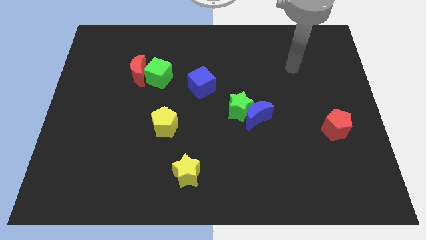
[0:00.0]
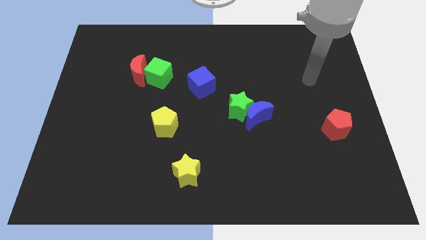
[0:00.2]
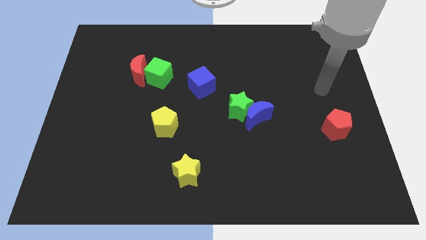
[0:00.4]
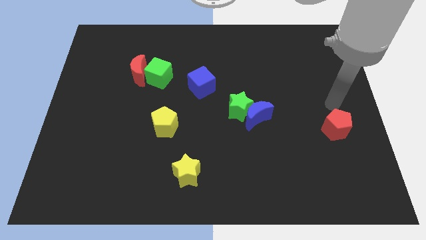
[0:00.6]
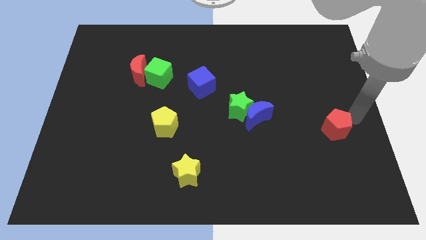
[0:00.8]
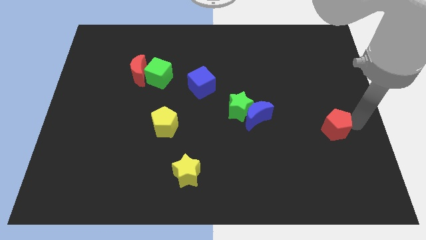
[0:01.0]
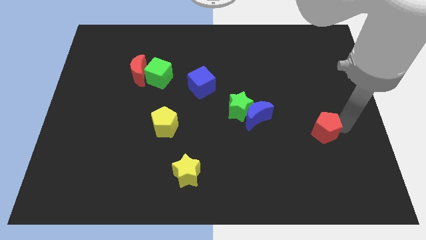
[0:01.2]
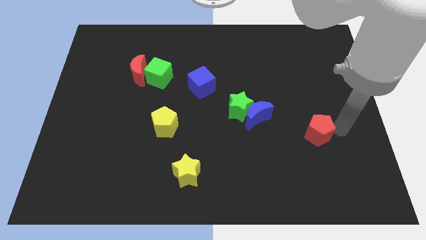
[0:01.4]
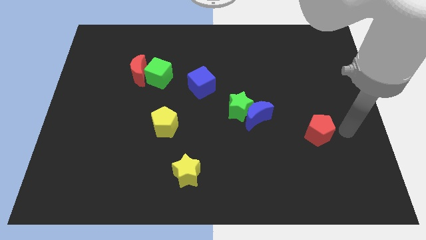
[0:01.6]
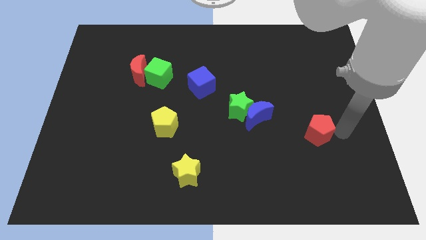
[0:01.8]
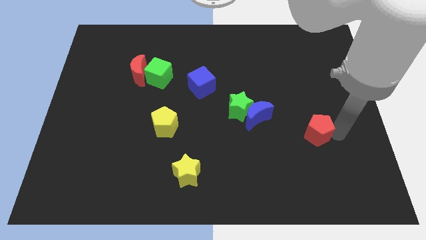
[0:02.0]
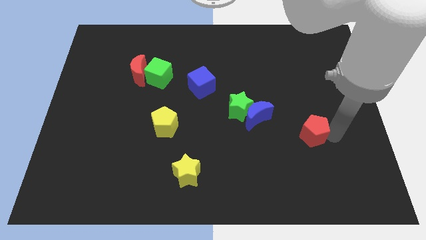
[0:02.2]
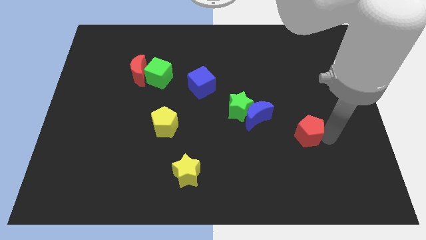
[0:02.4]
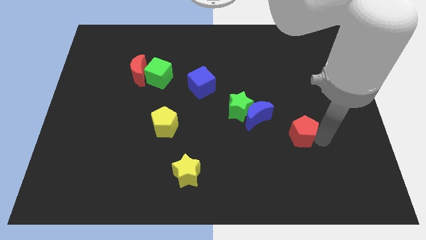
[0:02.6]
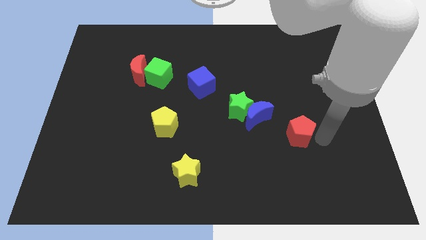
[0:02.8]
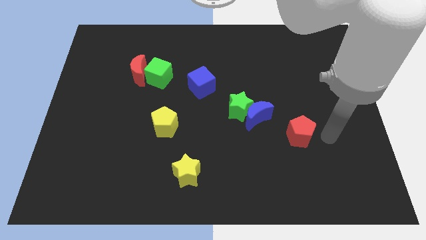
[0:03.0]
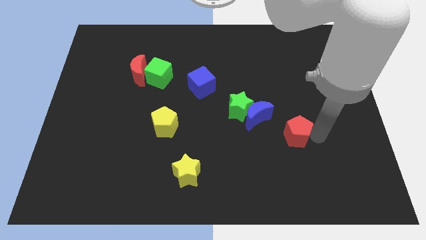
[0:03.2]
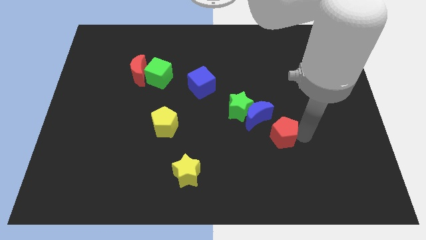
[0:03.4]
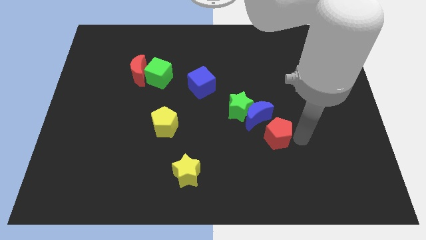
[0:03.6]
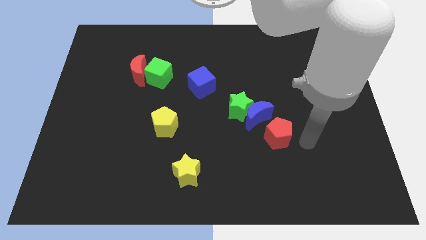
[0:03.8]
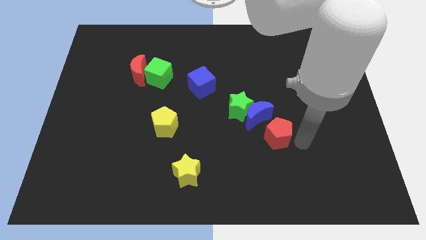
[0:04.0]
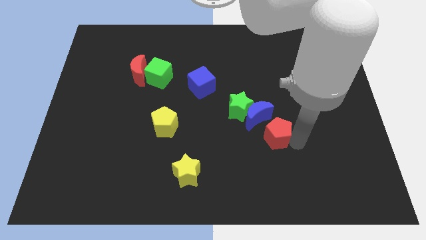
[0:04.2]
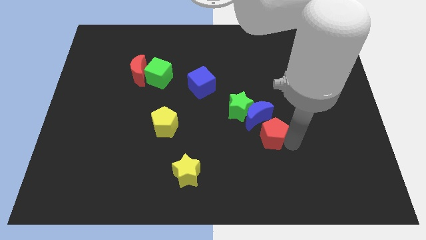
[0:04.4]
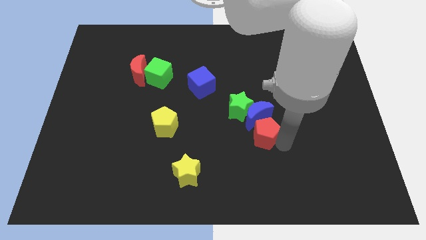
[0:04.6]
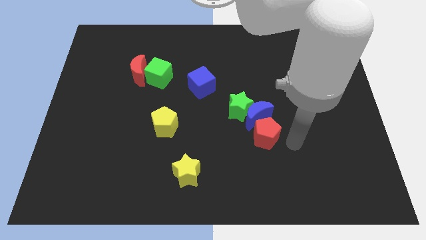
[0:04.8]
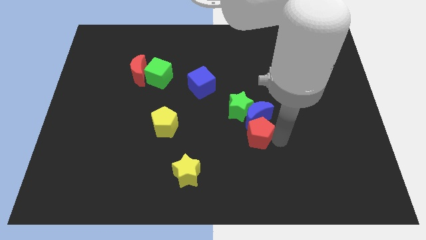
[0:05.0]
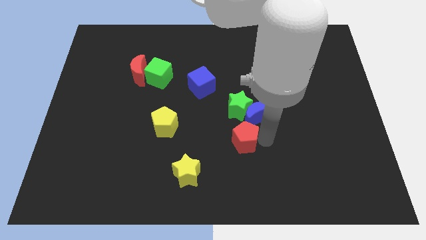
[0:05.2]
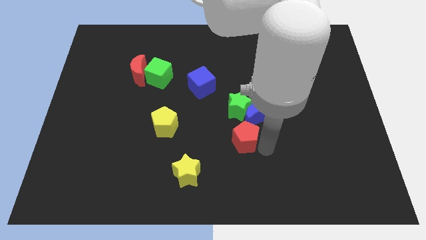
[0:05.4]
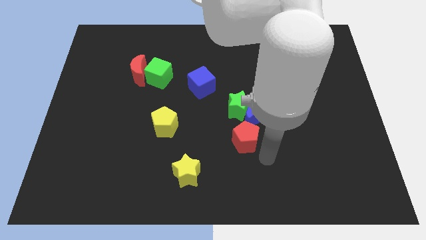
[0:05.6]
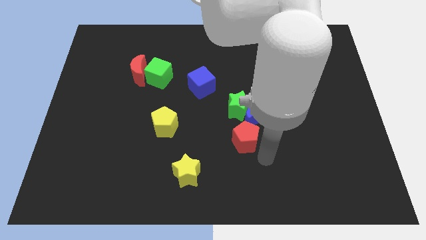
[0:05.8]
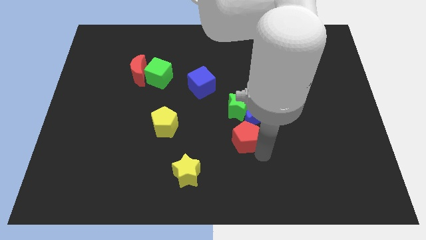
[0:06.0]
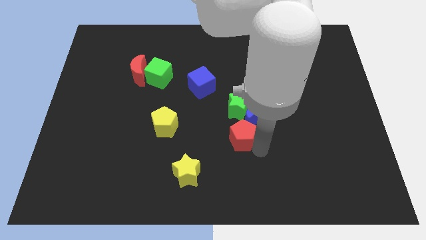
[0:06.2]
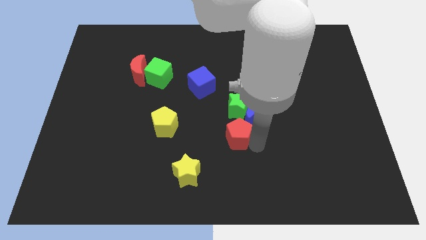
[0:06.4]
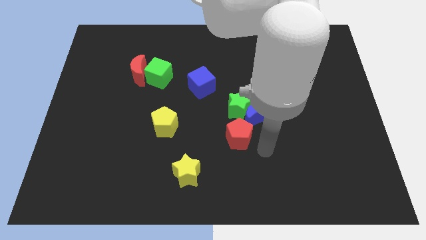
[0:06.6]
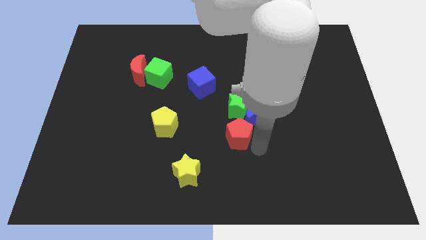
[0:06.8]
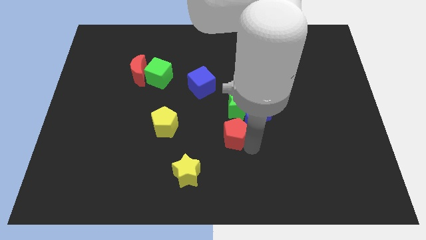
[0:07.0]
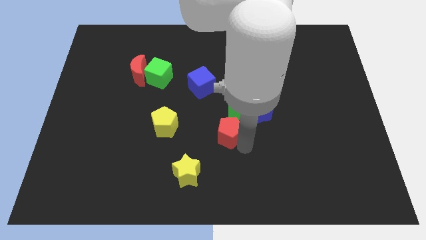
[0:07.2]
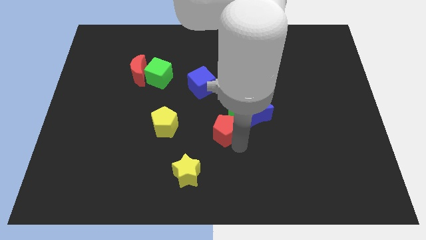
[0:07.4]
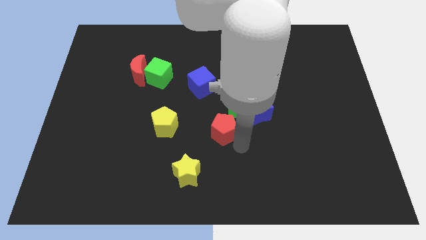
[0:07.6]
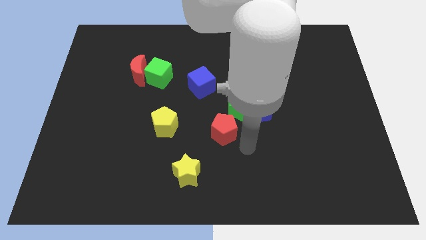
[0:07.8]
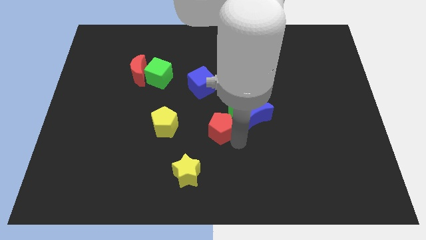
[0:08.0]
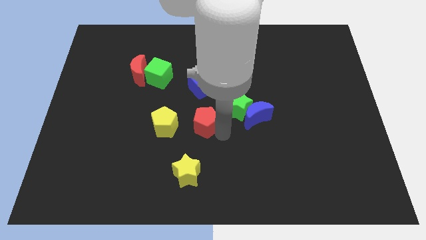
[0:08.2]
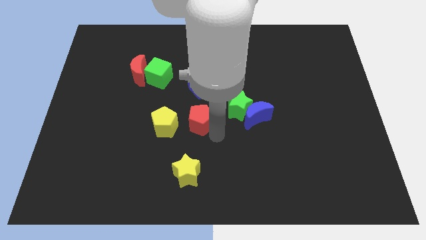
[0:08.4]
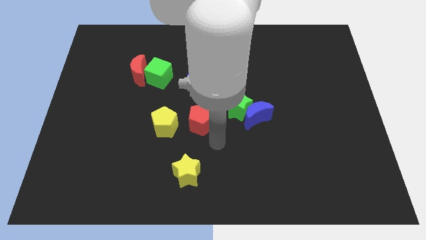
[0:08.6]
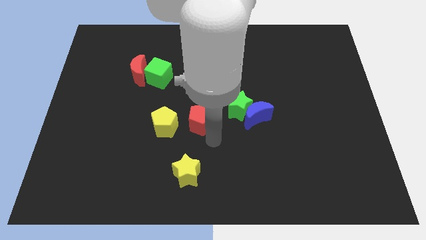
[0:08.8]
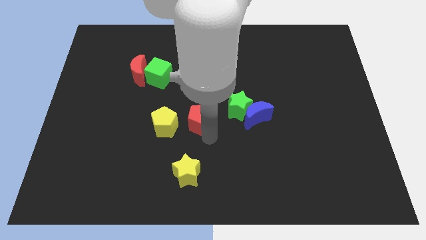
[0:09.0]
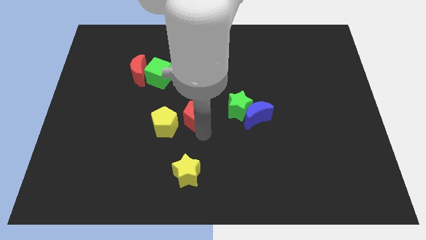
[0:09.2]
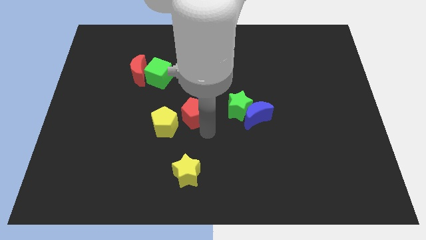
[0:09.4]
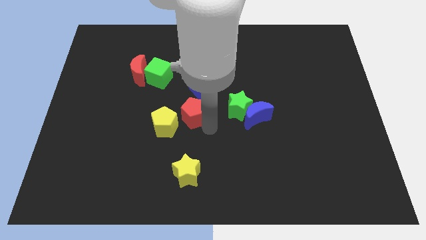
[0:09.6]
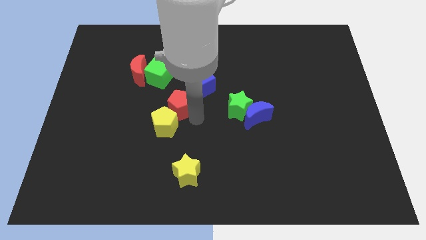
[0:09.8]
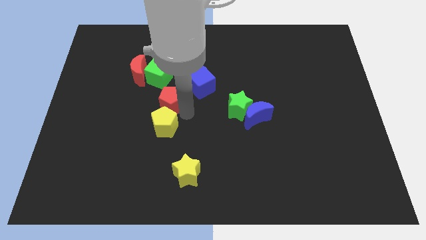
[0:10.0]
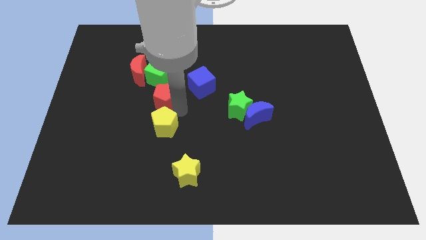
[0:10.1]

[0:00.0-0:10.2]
move the red pentagon just left of the blue cube

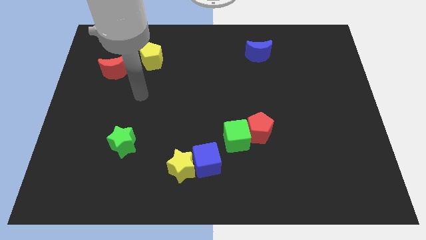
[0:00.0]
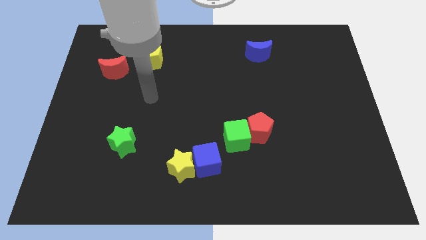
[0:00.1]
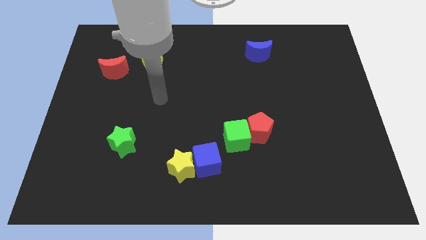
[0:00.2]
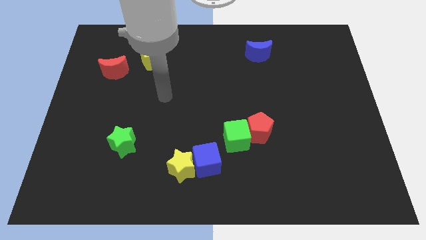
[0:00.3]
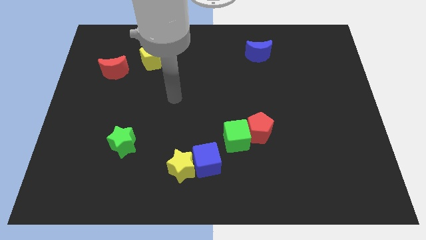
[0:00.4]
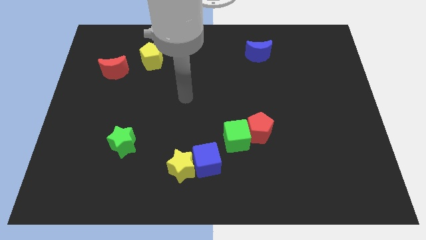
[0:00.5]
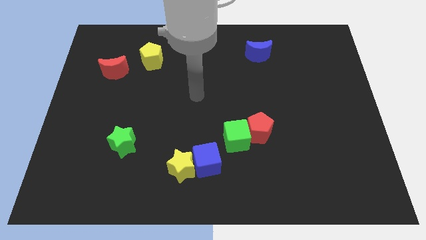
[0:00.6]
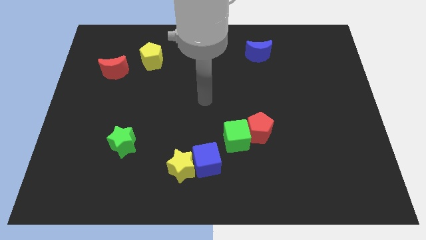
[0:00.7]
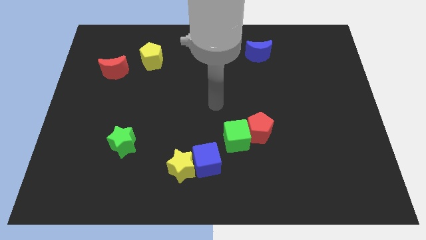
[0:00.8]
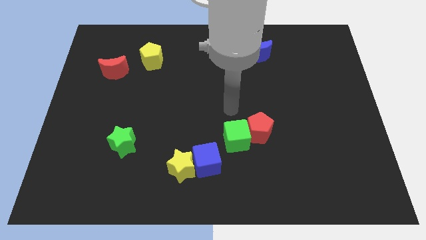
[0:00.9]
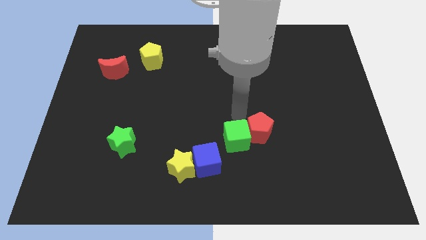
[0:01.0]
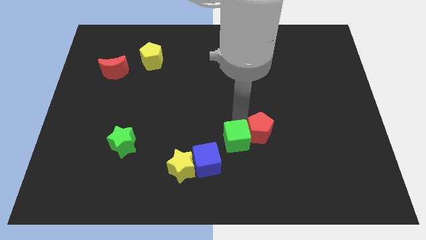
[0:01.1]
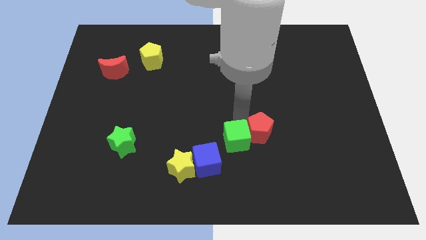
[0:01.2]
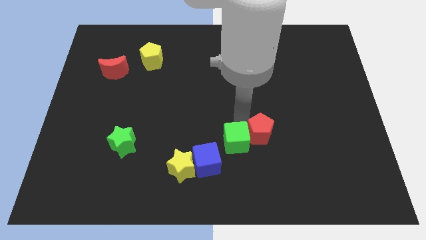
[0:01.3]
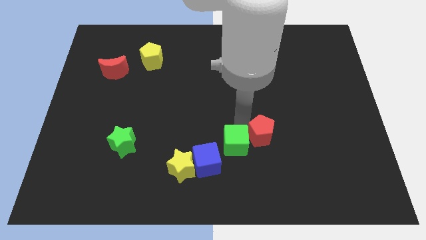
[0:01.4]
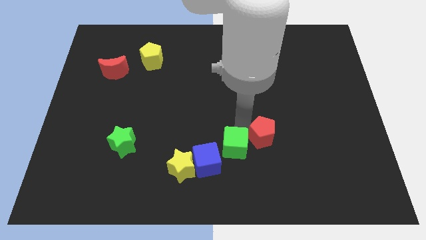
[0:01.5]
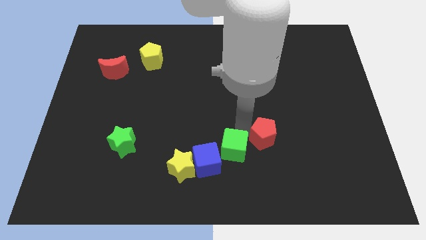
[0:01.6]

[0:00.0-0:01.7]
push the green cube to the right of the yellow star
